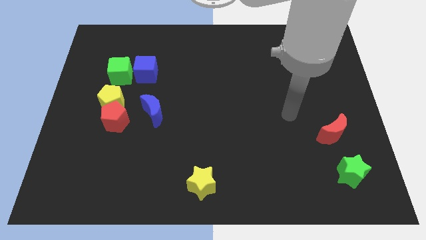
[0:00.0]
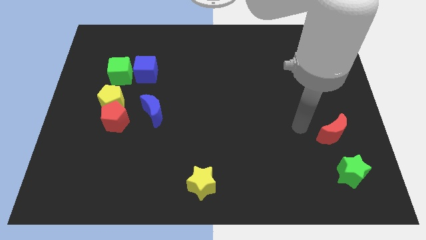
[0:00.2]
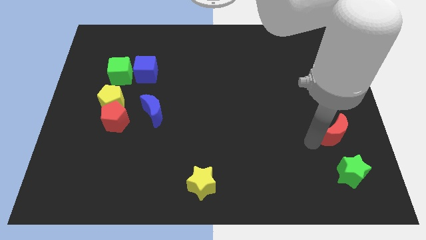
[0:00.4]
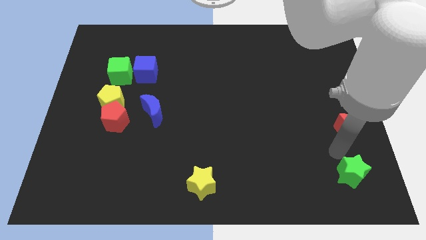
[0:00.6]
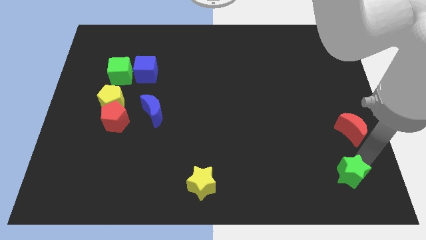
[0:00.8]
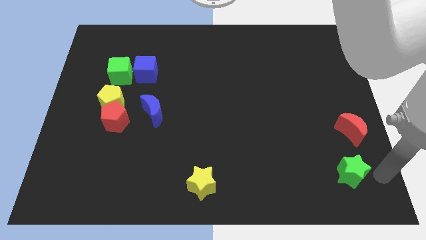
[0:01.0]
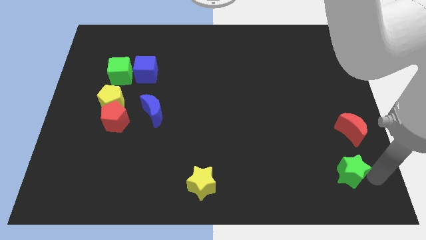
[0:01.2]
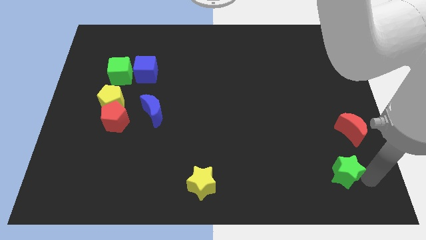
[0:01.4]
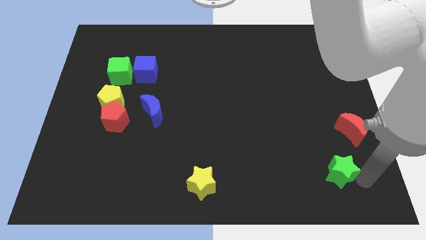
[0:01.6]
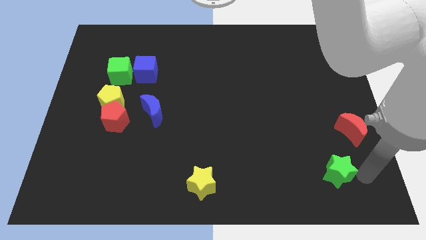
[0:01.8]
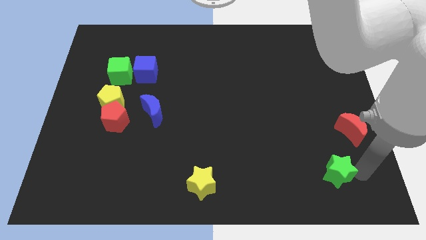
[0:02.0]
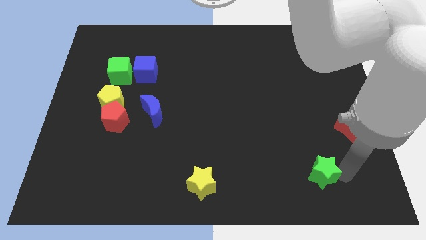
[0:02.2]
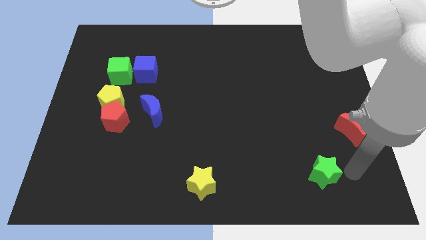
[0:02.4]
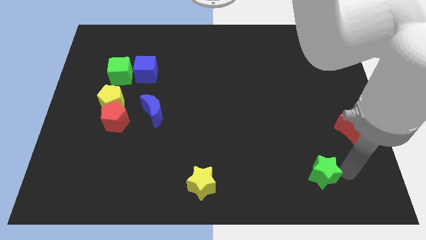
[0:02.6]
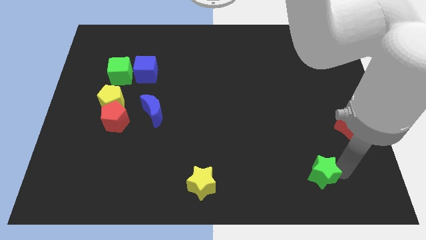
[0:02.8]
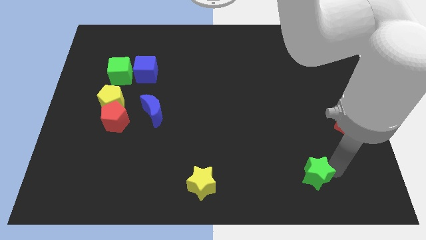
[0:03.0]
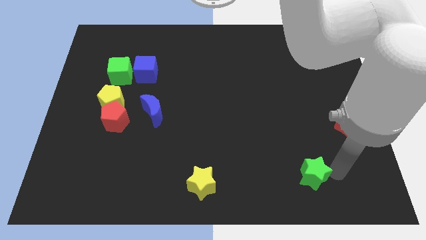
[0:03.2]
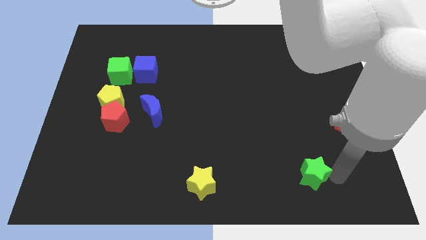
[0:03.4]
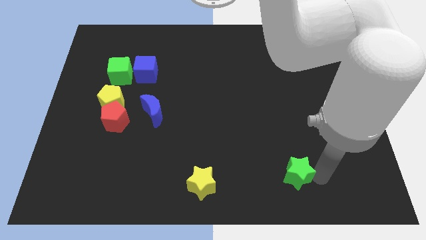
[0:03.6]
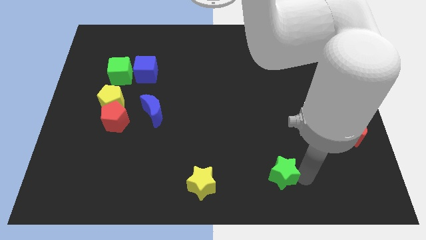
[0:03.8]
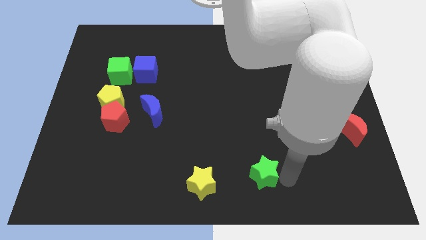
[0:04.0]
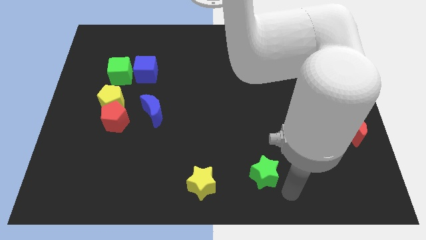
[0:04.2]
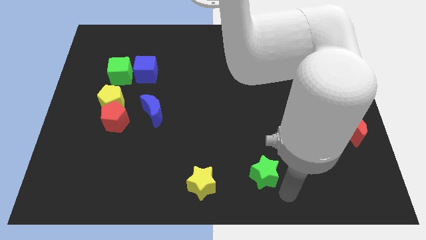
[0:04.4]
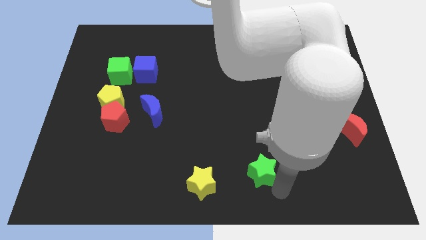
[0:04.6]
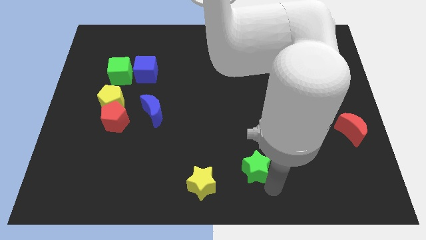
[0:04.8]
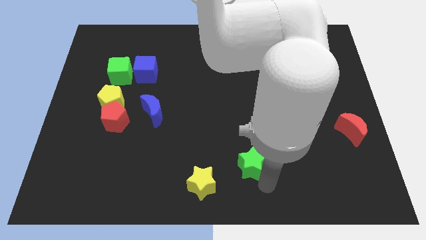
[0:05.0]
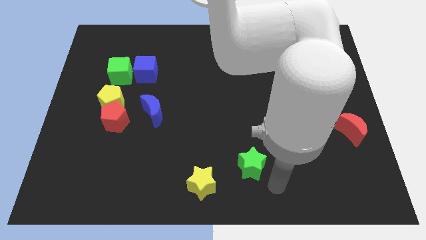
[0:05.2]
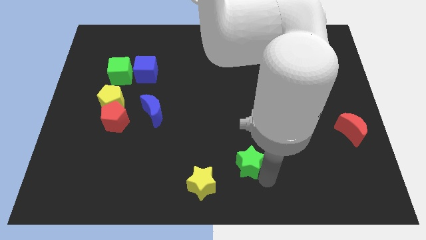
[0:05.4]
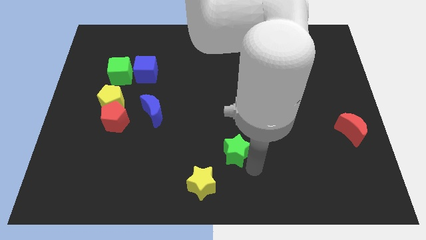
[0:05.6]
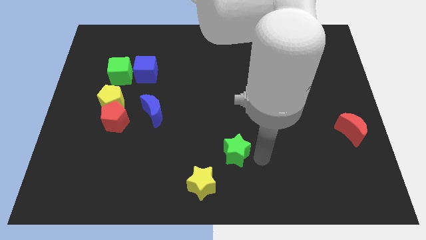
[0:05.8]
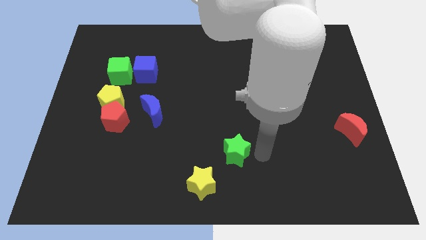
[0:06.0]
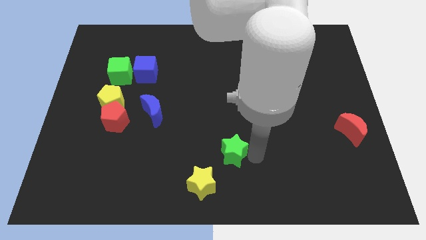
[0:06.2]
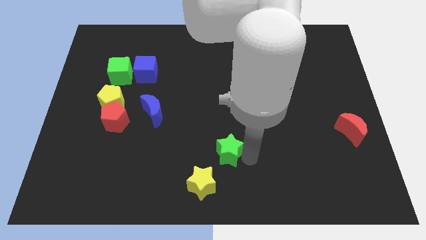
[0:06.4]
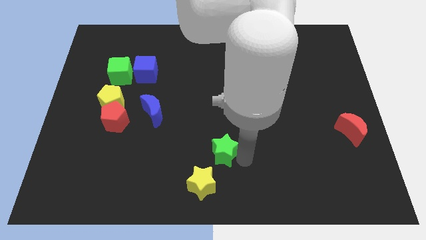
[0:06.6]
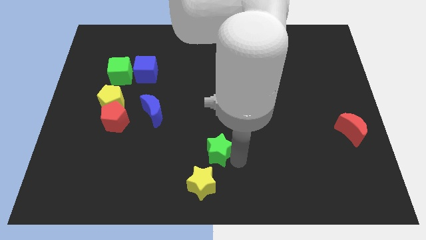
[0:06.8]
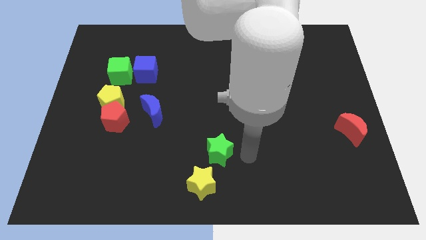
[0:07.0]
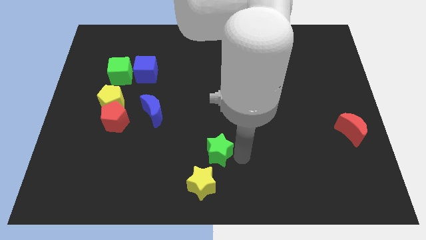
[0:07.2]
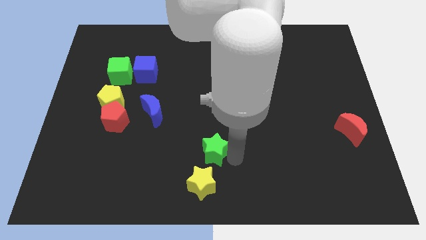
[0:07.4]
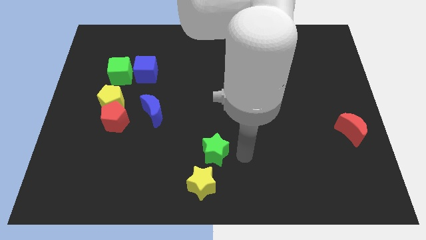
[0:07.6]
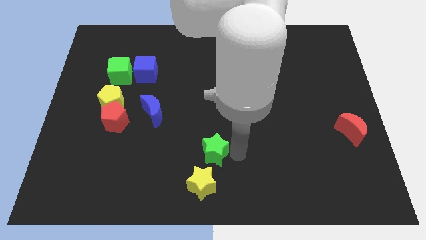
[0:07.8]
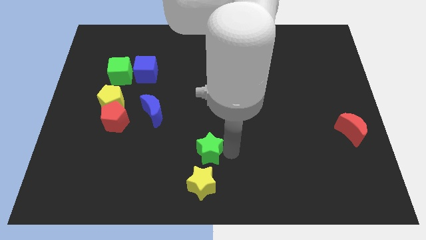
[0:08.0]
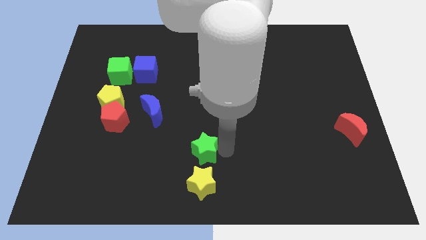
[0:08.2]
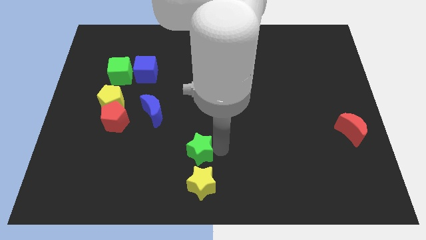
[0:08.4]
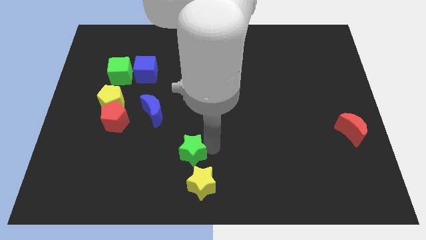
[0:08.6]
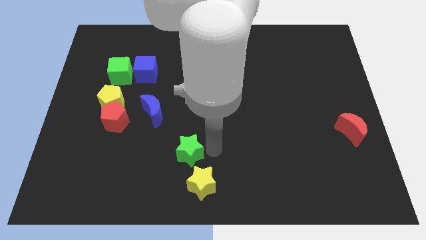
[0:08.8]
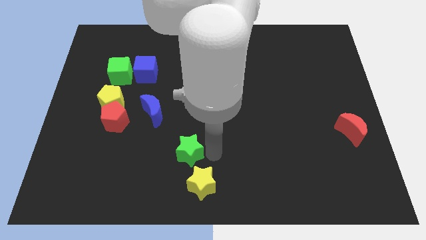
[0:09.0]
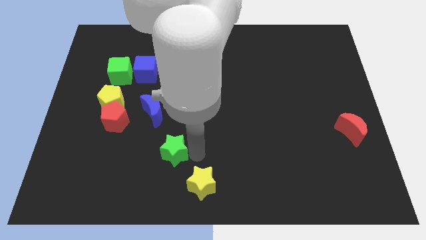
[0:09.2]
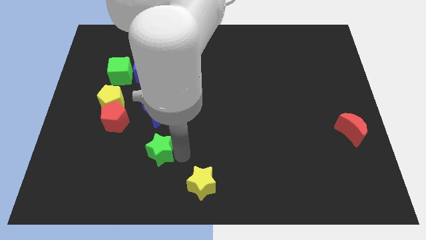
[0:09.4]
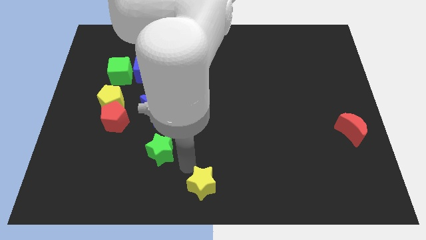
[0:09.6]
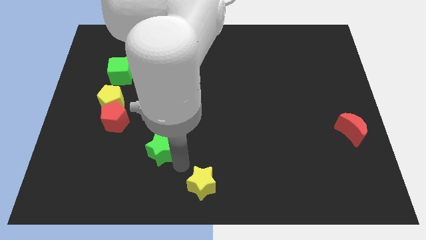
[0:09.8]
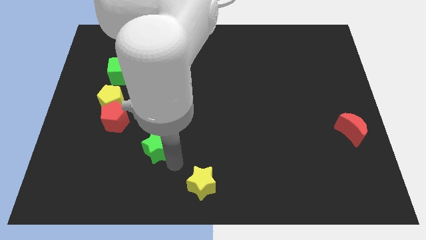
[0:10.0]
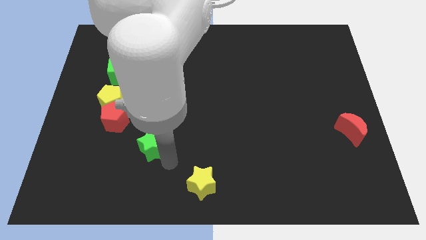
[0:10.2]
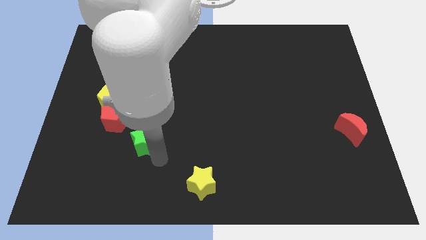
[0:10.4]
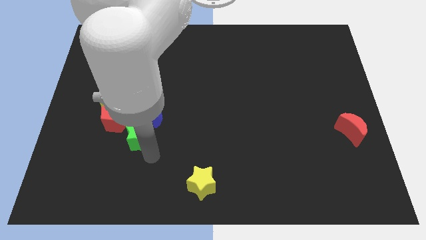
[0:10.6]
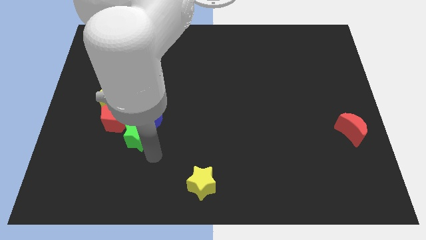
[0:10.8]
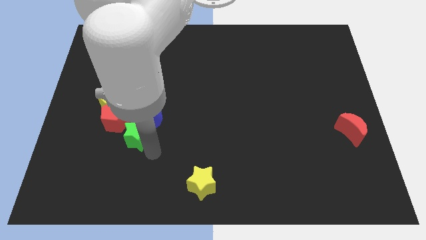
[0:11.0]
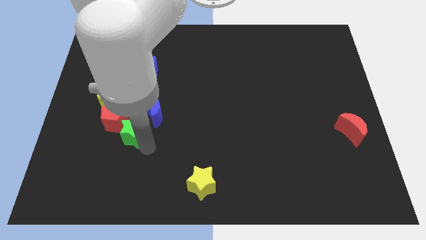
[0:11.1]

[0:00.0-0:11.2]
slide the green star close to the red pentagon

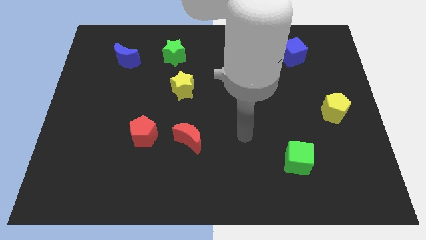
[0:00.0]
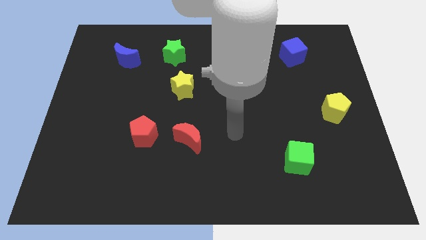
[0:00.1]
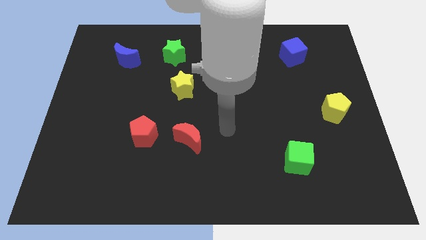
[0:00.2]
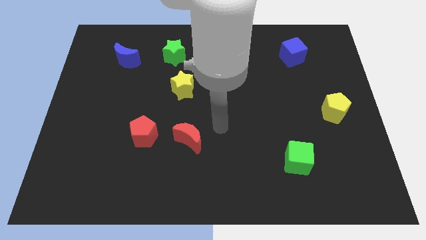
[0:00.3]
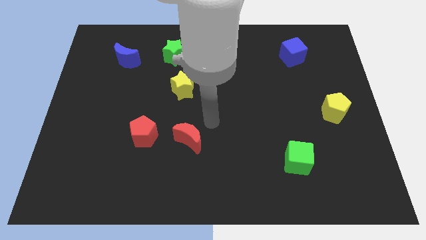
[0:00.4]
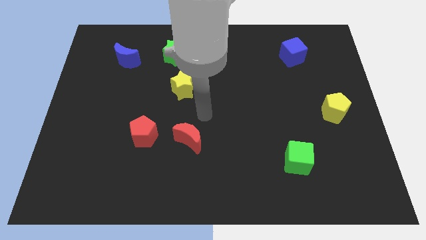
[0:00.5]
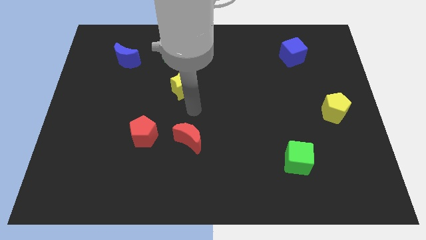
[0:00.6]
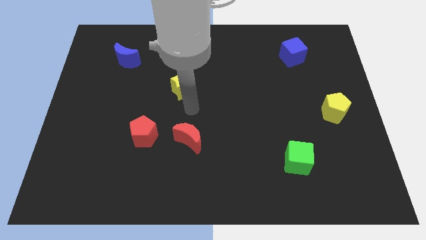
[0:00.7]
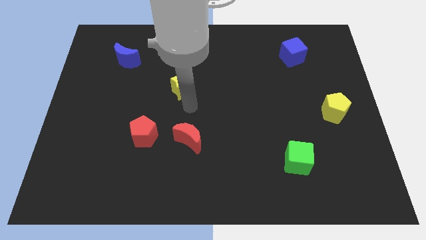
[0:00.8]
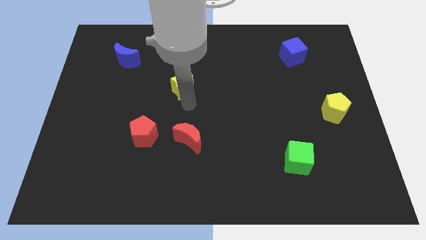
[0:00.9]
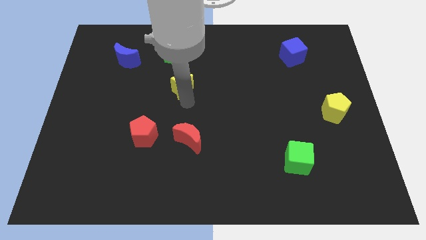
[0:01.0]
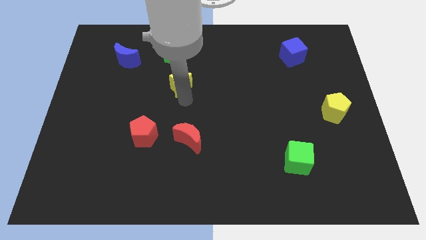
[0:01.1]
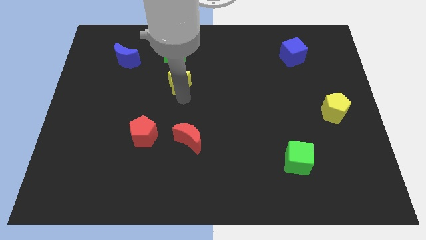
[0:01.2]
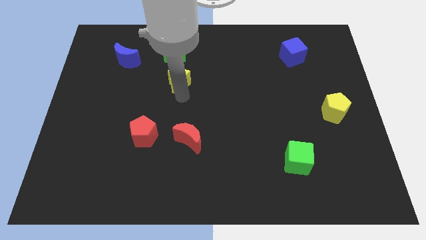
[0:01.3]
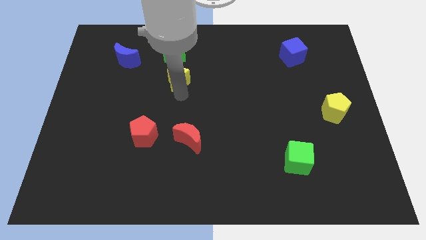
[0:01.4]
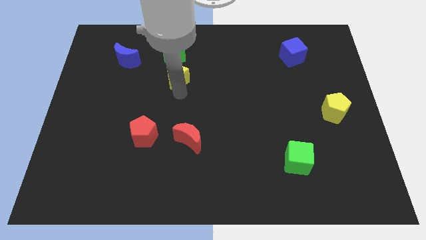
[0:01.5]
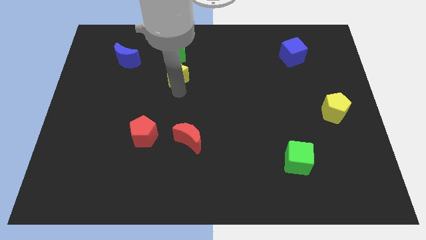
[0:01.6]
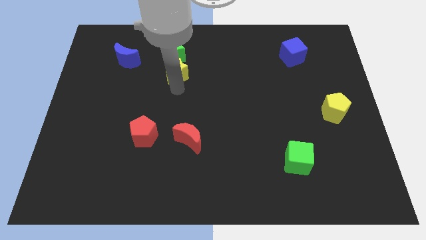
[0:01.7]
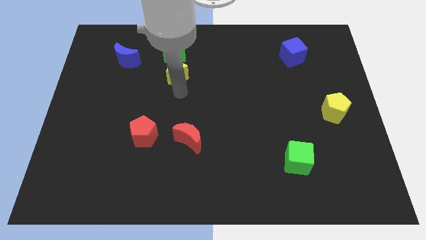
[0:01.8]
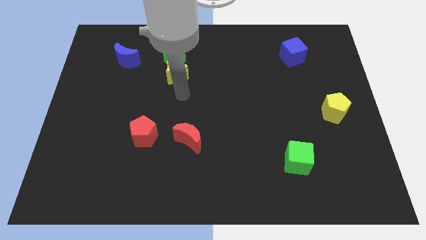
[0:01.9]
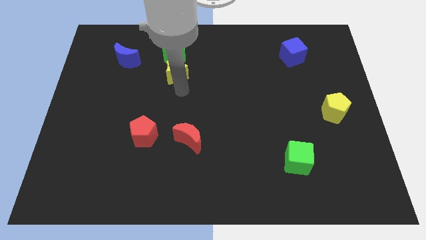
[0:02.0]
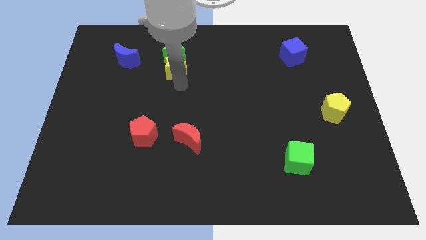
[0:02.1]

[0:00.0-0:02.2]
slide the yellow star towards the green star
